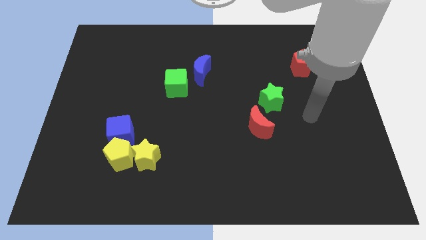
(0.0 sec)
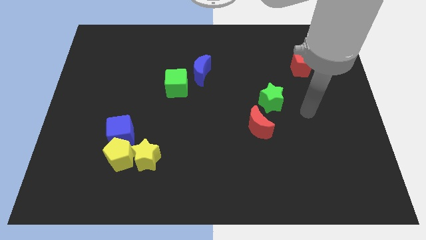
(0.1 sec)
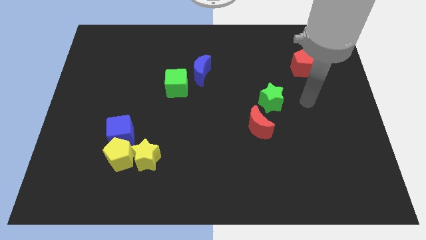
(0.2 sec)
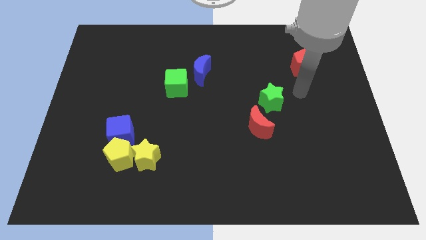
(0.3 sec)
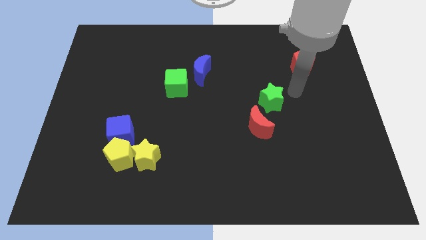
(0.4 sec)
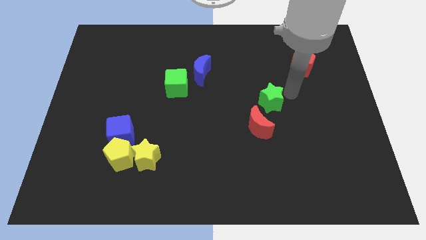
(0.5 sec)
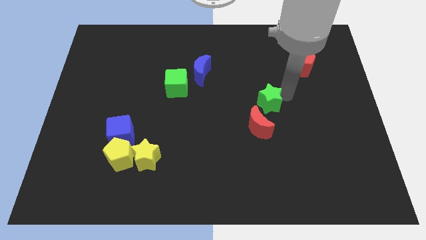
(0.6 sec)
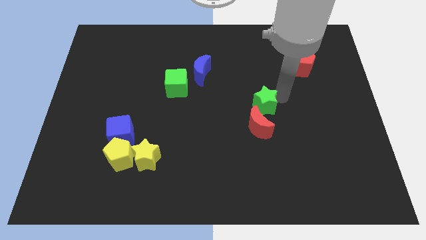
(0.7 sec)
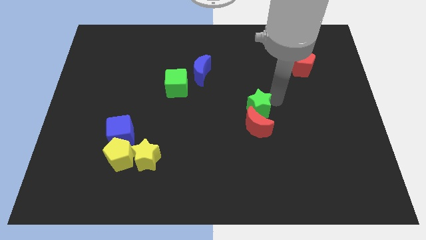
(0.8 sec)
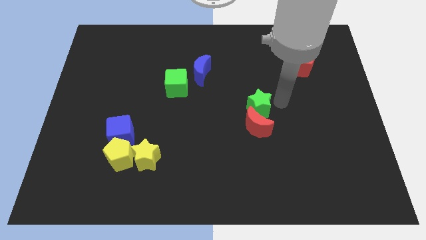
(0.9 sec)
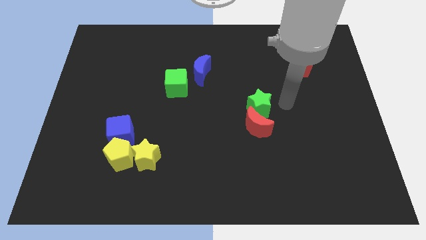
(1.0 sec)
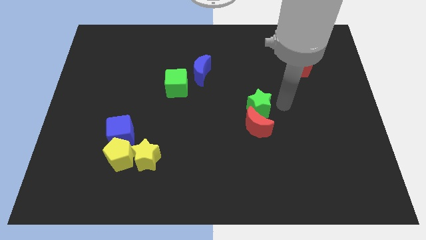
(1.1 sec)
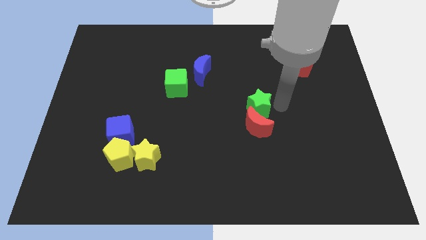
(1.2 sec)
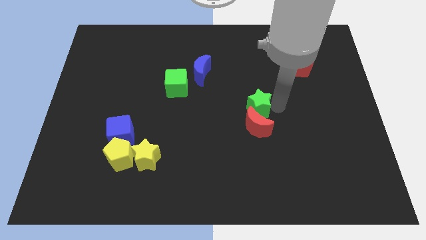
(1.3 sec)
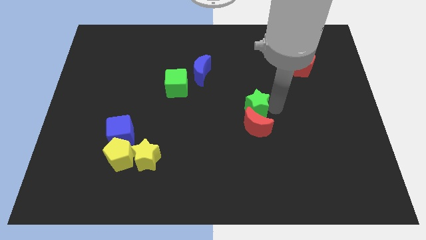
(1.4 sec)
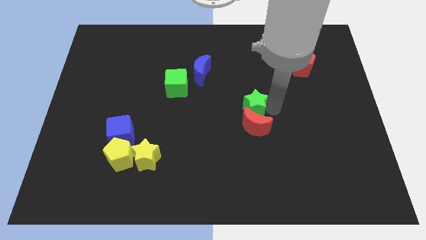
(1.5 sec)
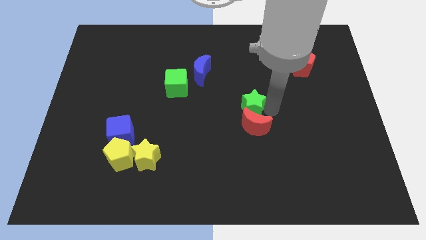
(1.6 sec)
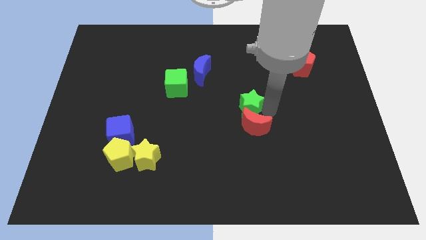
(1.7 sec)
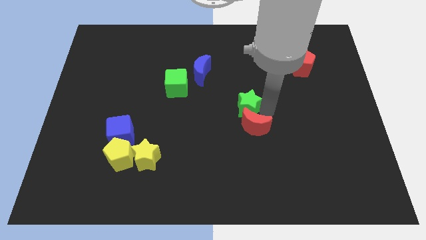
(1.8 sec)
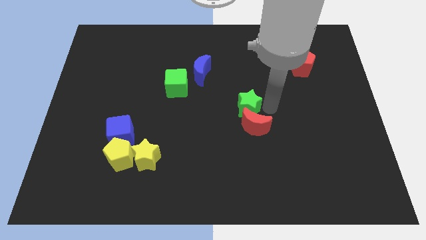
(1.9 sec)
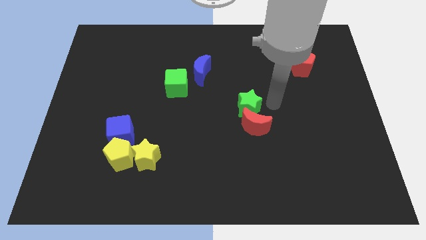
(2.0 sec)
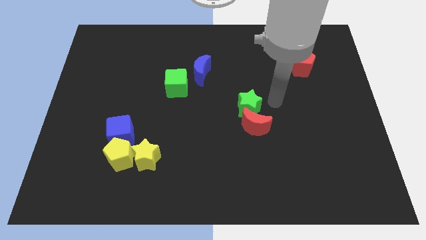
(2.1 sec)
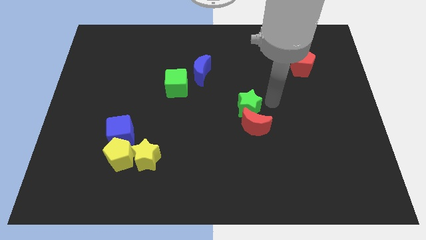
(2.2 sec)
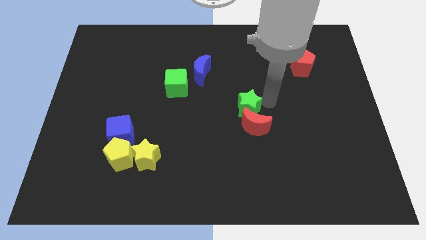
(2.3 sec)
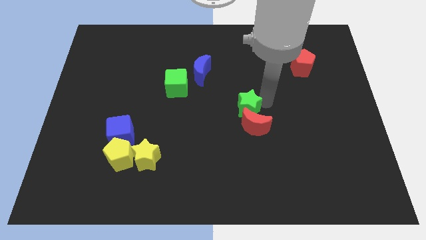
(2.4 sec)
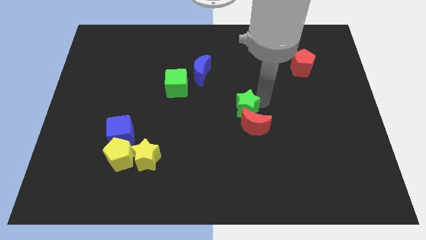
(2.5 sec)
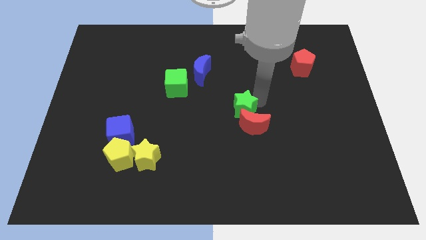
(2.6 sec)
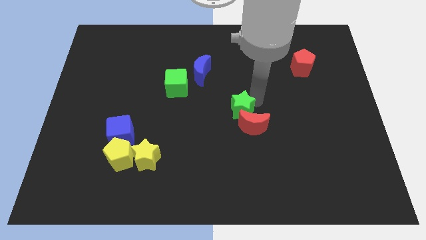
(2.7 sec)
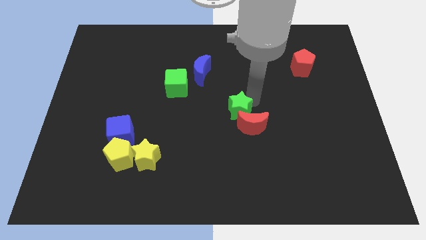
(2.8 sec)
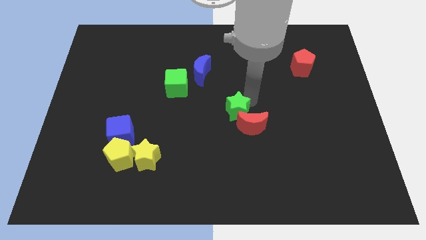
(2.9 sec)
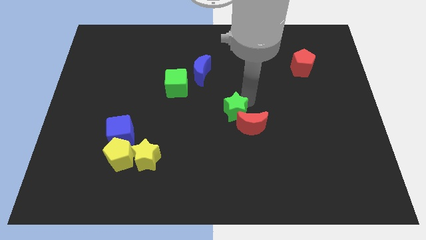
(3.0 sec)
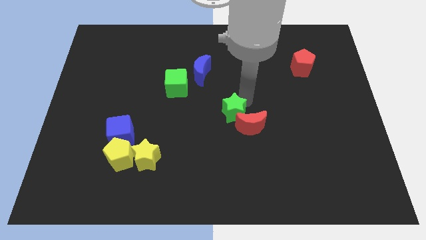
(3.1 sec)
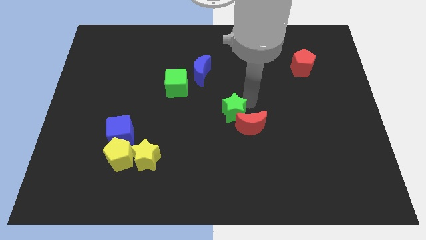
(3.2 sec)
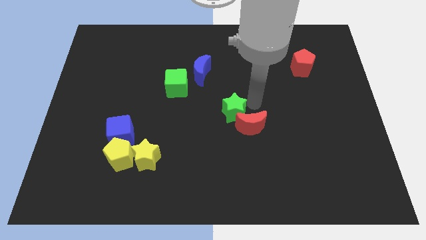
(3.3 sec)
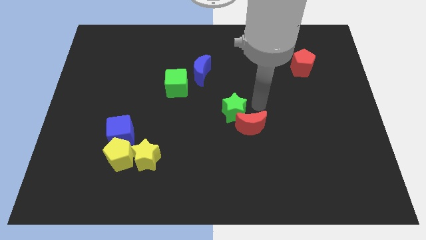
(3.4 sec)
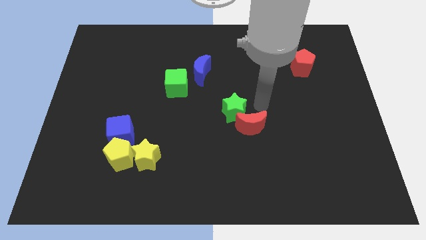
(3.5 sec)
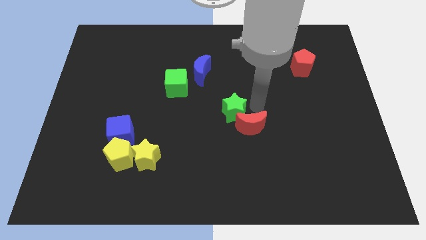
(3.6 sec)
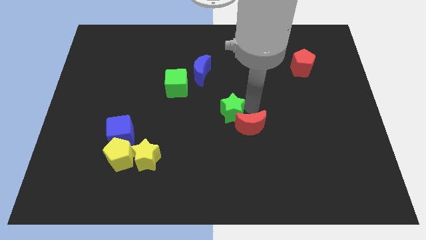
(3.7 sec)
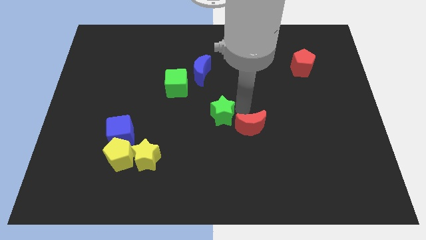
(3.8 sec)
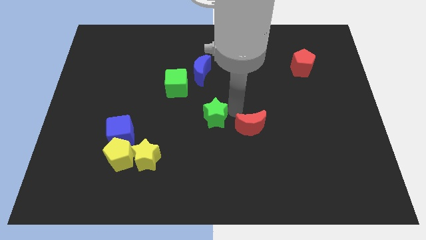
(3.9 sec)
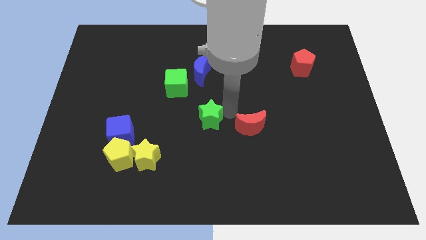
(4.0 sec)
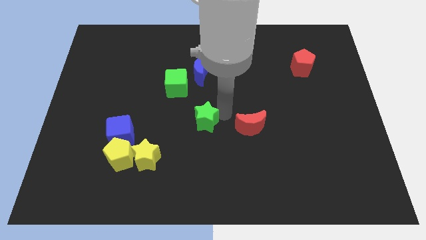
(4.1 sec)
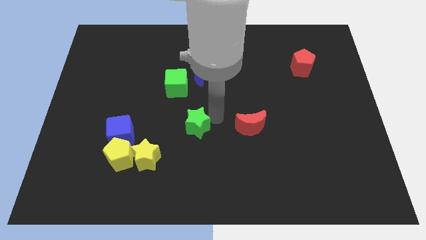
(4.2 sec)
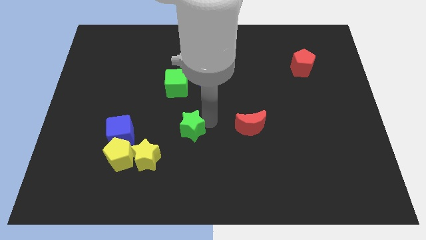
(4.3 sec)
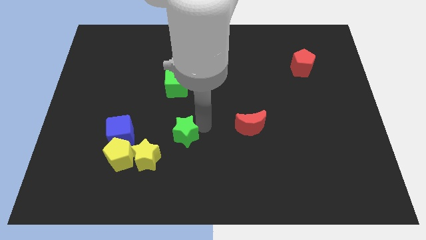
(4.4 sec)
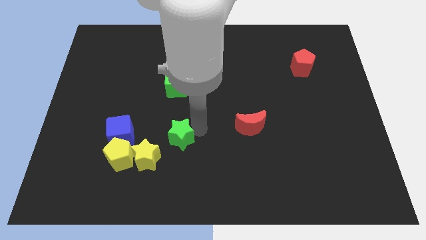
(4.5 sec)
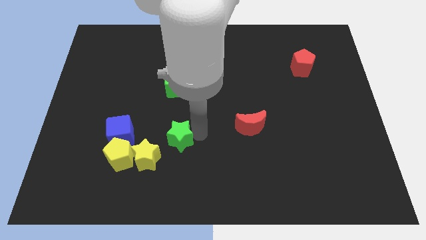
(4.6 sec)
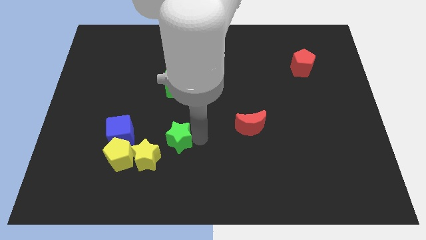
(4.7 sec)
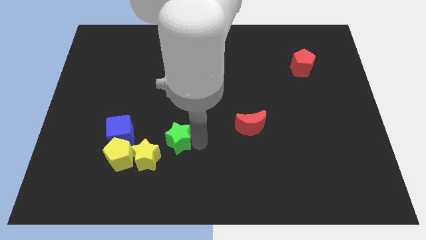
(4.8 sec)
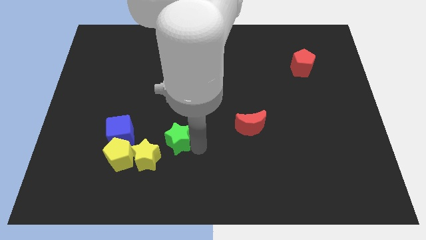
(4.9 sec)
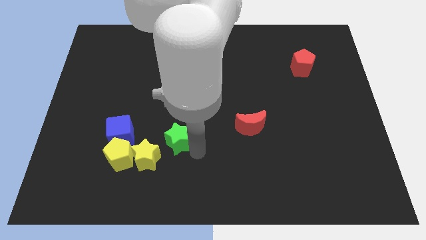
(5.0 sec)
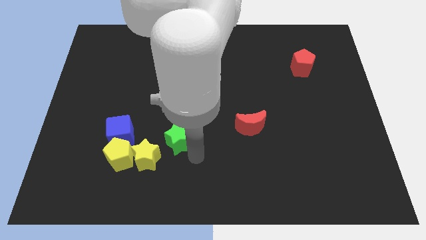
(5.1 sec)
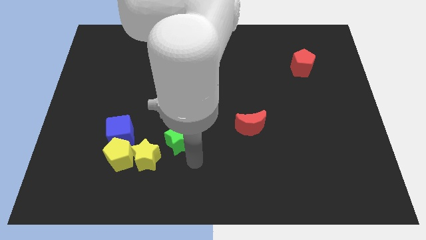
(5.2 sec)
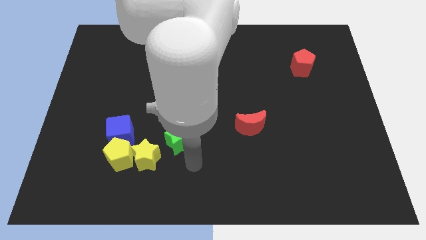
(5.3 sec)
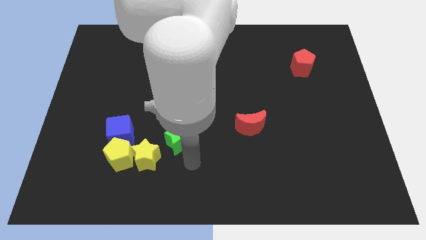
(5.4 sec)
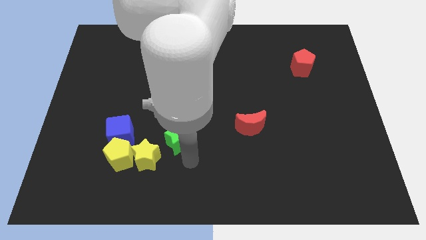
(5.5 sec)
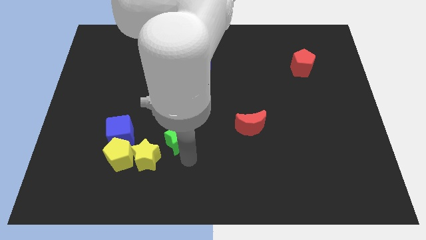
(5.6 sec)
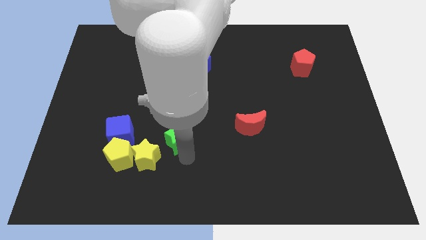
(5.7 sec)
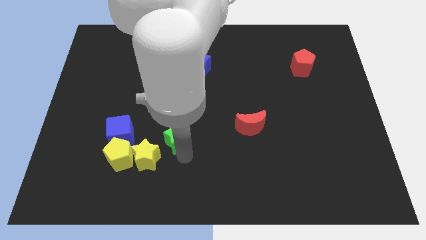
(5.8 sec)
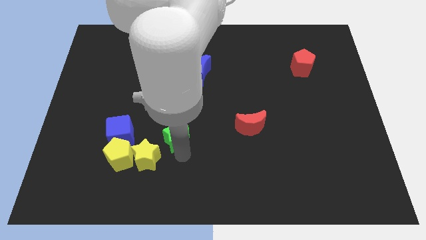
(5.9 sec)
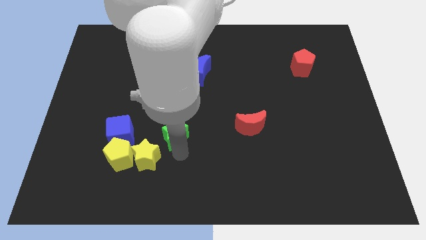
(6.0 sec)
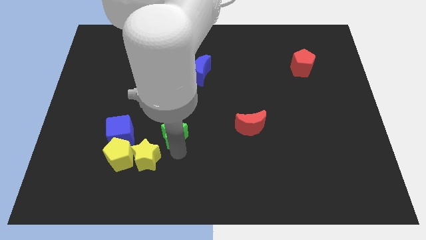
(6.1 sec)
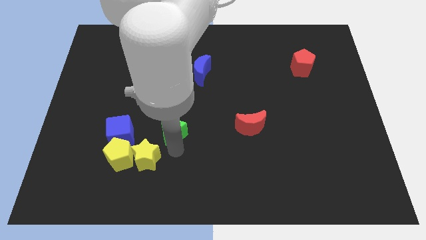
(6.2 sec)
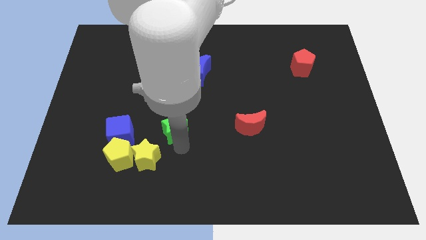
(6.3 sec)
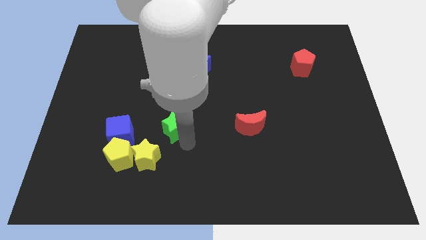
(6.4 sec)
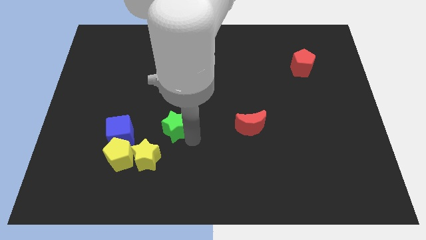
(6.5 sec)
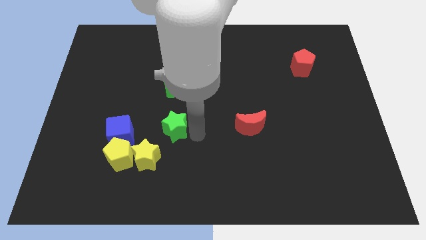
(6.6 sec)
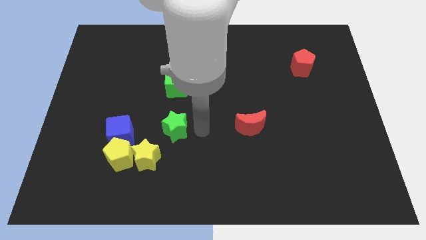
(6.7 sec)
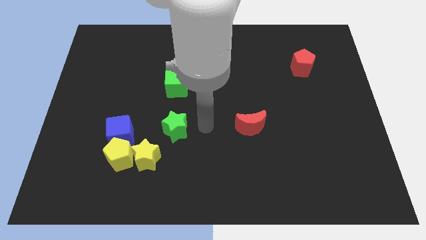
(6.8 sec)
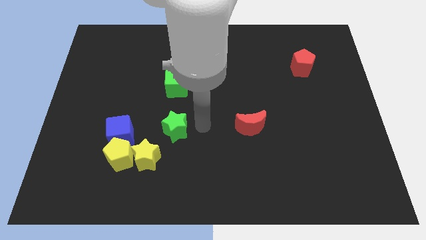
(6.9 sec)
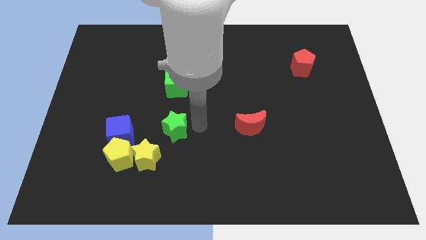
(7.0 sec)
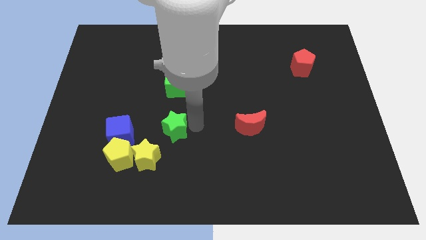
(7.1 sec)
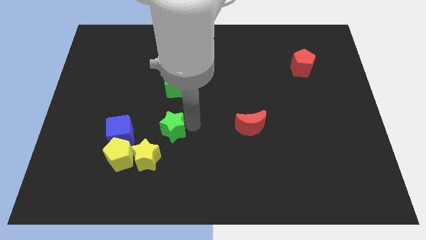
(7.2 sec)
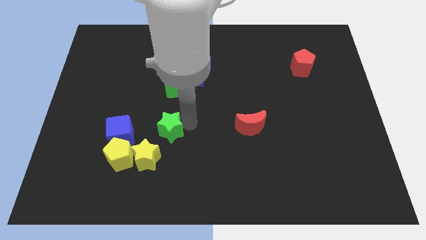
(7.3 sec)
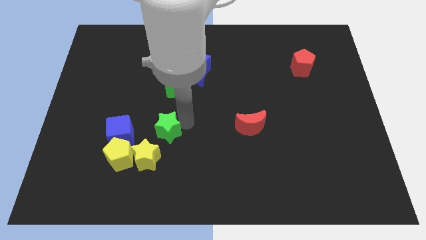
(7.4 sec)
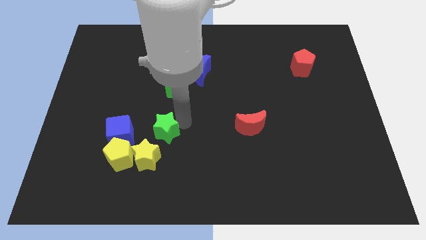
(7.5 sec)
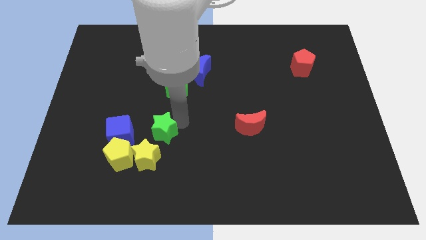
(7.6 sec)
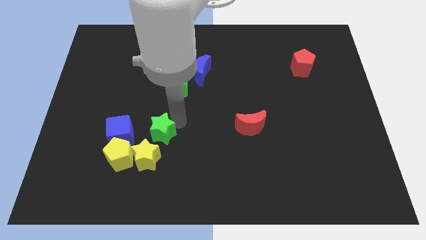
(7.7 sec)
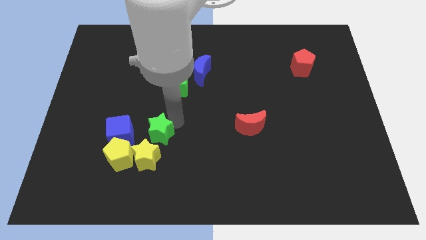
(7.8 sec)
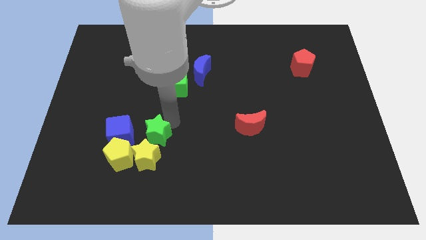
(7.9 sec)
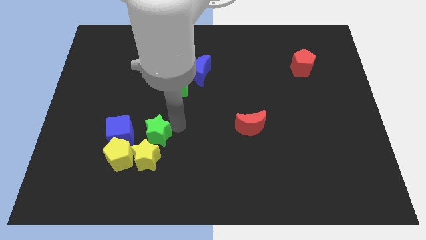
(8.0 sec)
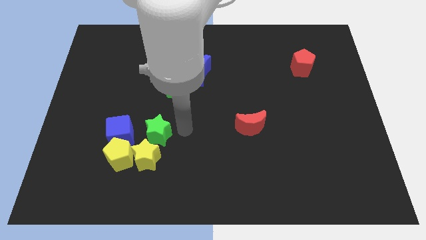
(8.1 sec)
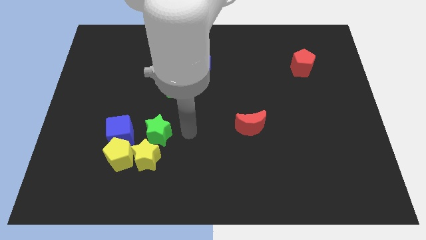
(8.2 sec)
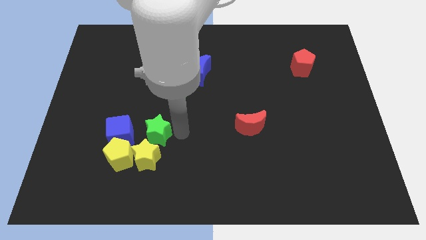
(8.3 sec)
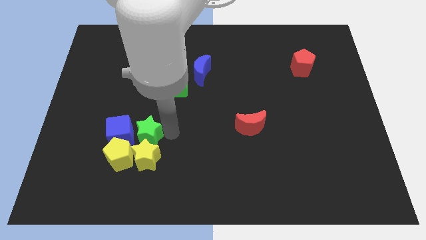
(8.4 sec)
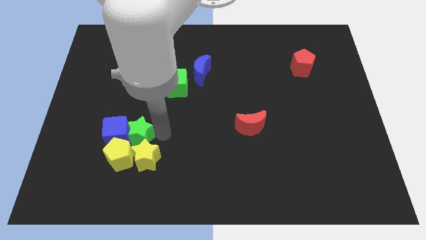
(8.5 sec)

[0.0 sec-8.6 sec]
move the green star towards the blue cube
